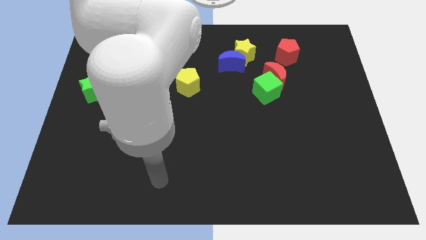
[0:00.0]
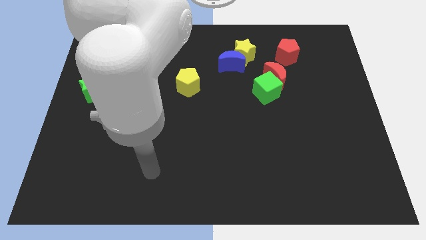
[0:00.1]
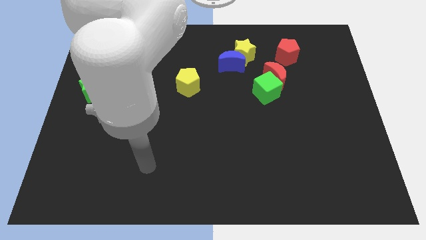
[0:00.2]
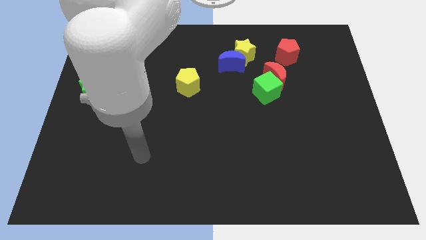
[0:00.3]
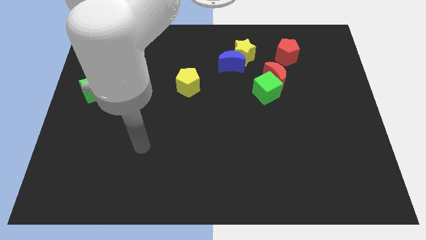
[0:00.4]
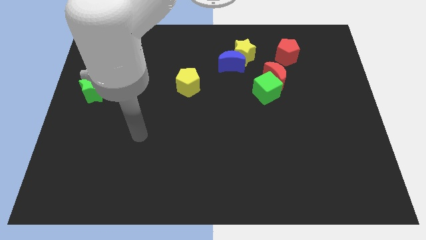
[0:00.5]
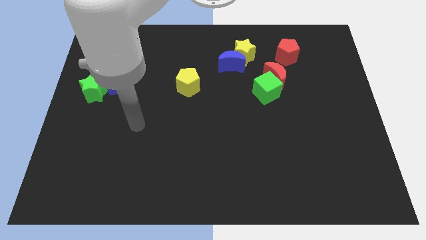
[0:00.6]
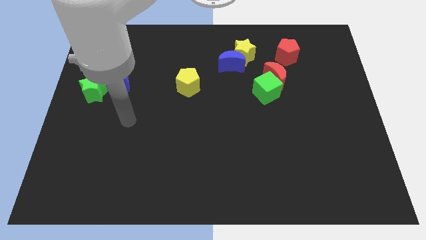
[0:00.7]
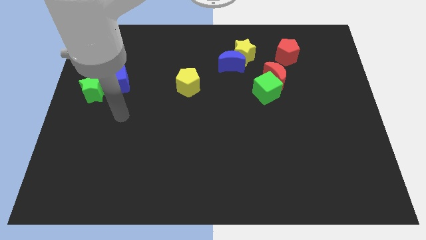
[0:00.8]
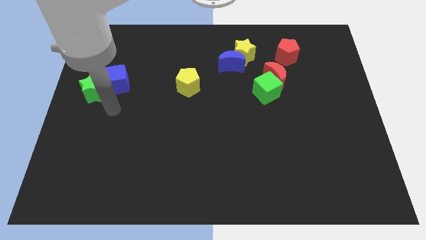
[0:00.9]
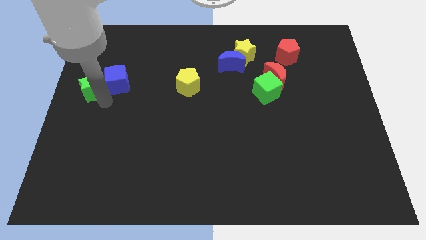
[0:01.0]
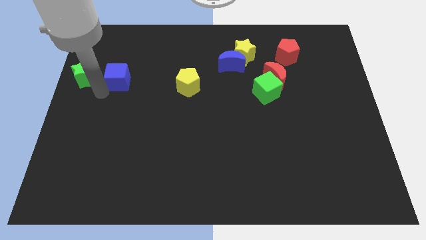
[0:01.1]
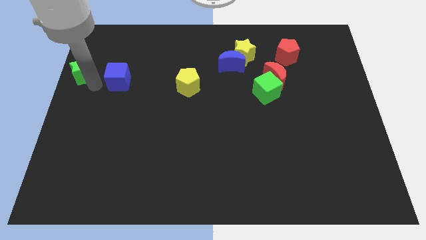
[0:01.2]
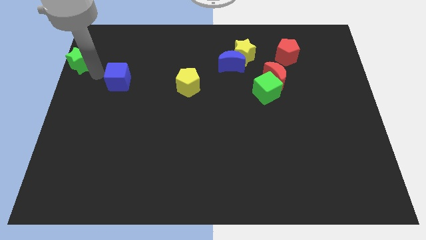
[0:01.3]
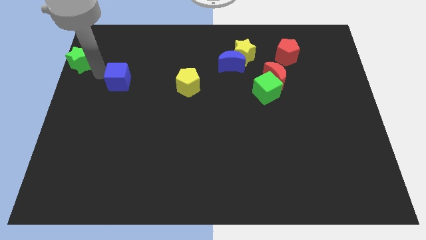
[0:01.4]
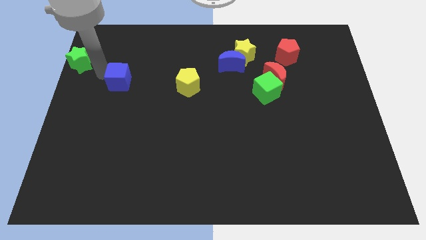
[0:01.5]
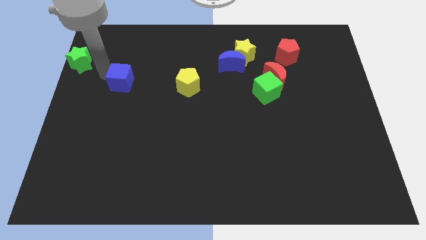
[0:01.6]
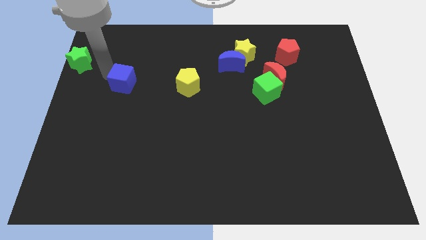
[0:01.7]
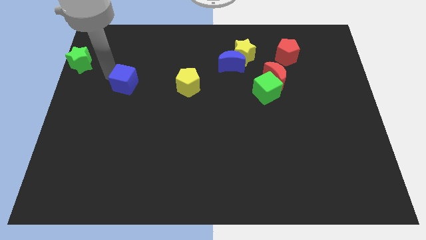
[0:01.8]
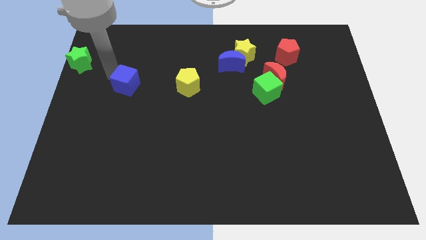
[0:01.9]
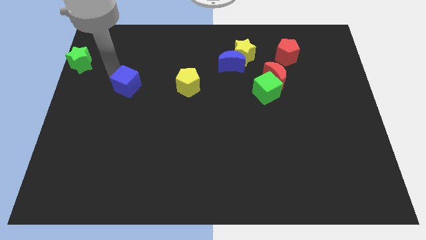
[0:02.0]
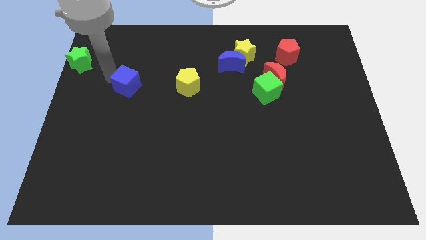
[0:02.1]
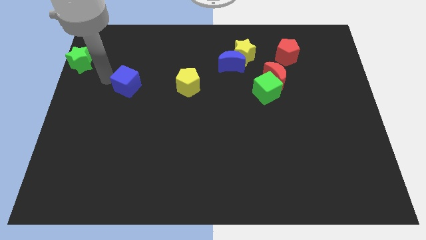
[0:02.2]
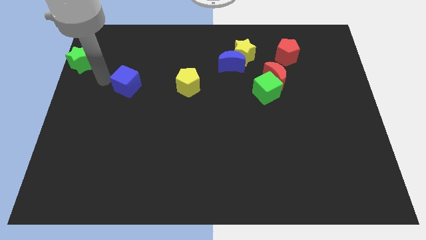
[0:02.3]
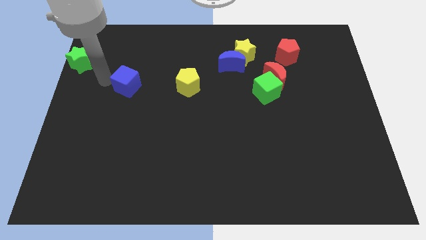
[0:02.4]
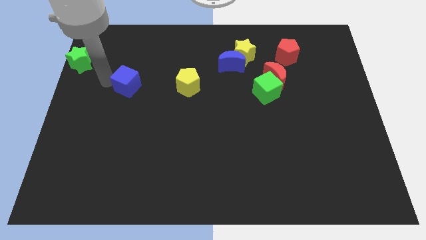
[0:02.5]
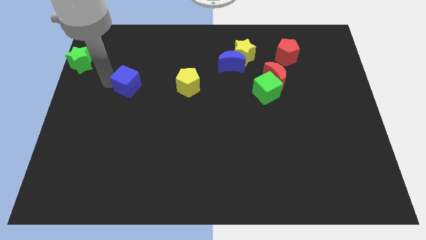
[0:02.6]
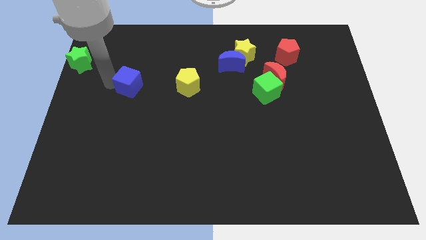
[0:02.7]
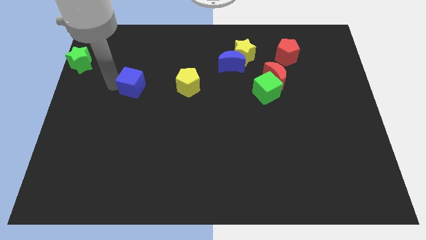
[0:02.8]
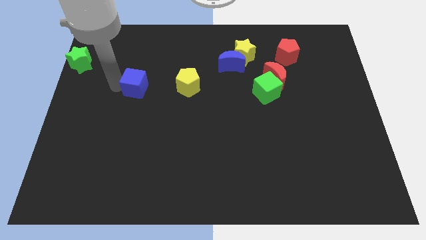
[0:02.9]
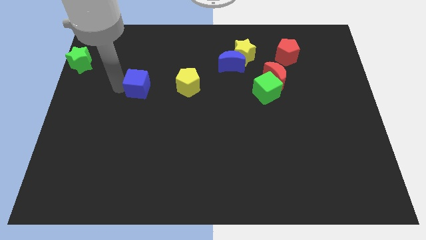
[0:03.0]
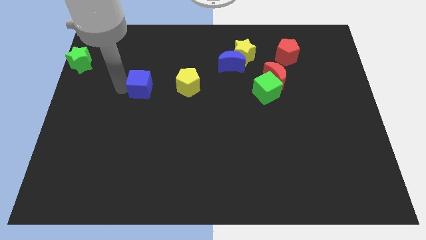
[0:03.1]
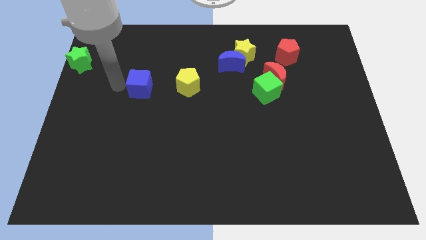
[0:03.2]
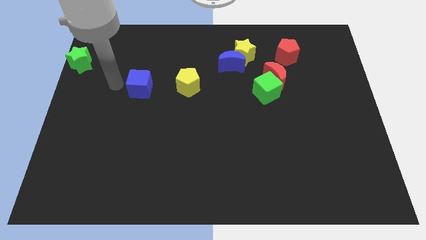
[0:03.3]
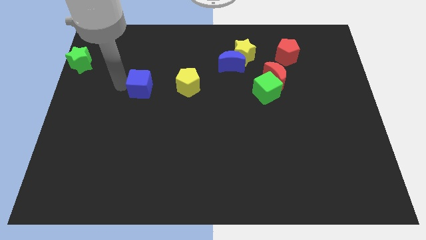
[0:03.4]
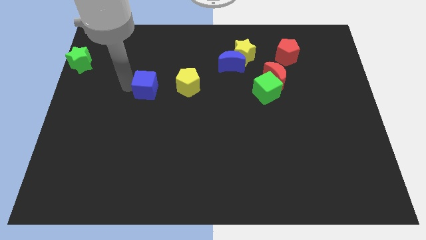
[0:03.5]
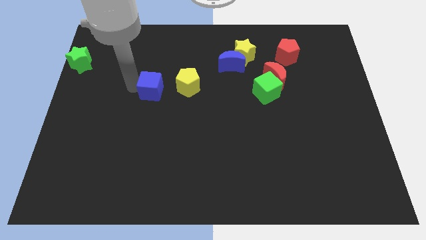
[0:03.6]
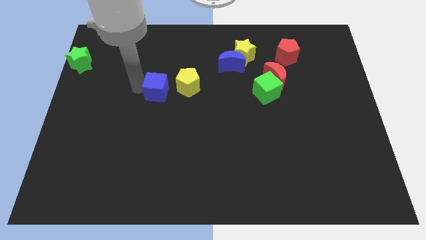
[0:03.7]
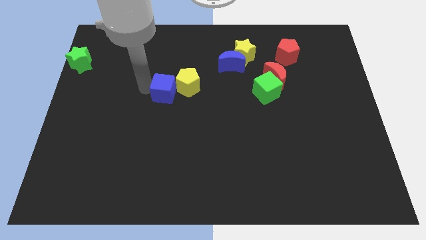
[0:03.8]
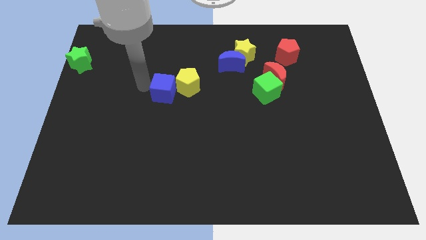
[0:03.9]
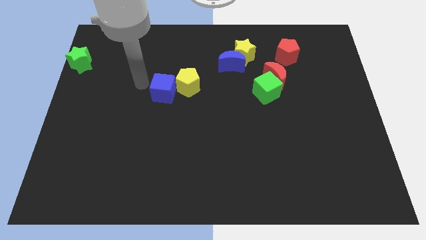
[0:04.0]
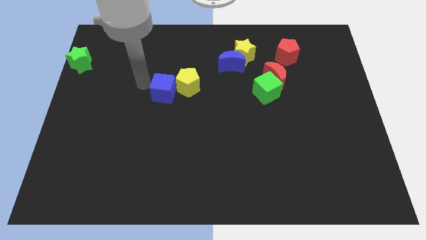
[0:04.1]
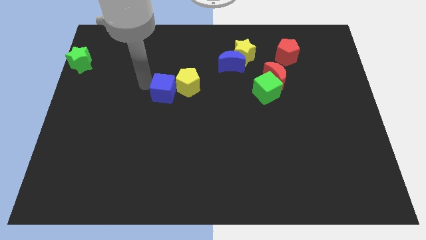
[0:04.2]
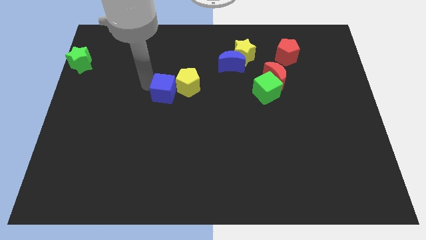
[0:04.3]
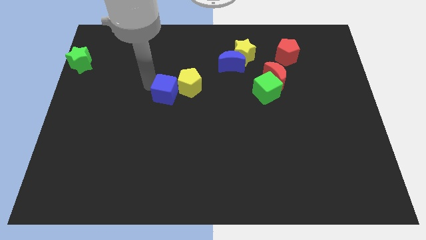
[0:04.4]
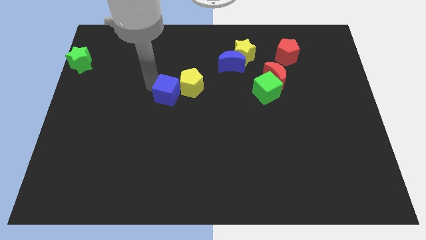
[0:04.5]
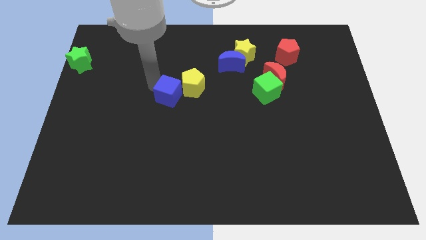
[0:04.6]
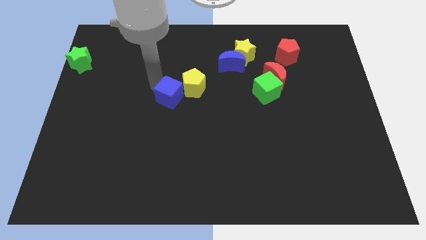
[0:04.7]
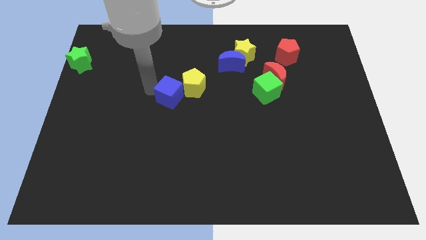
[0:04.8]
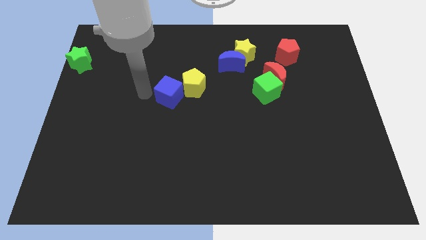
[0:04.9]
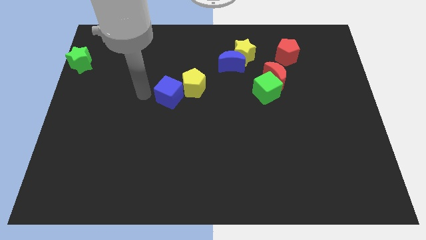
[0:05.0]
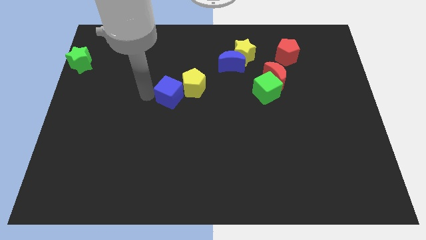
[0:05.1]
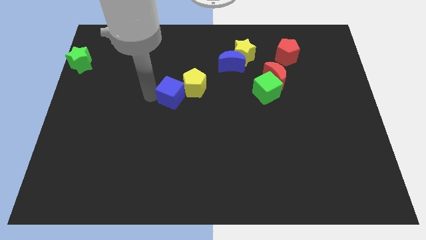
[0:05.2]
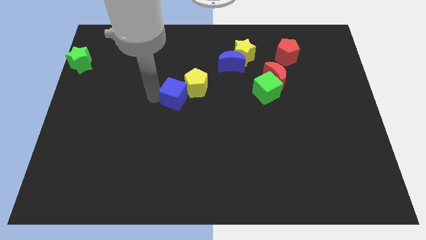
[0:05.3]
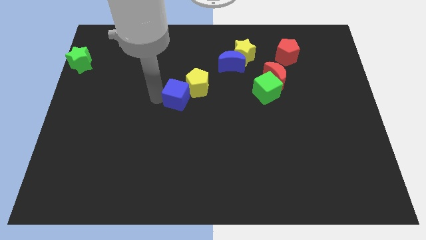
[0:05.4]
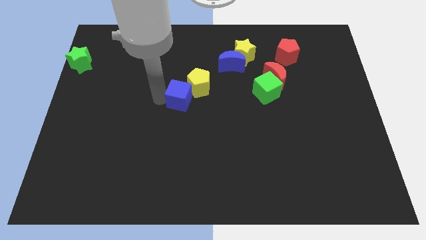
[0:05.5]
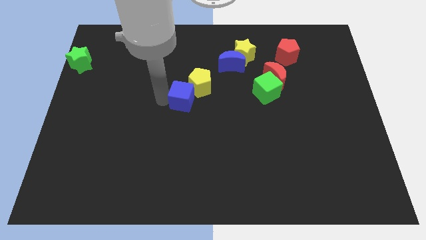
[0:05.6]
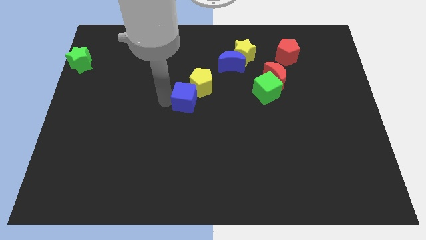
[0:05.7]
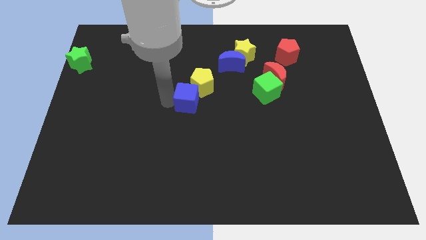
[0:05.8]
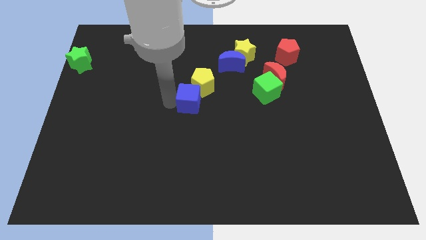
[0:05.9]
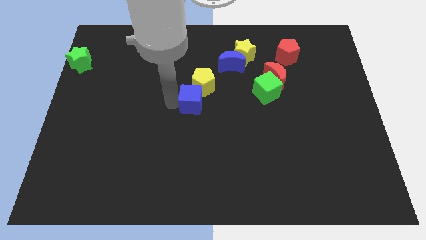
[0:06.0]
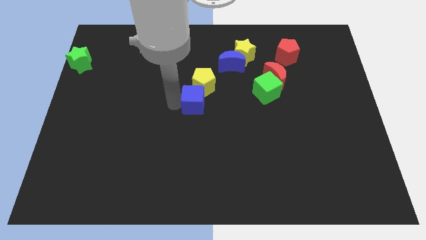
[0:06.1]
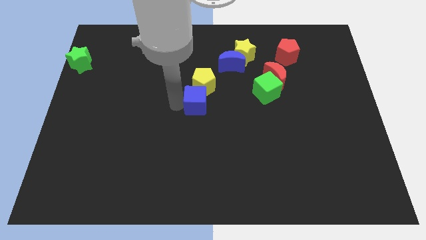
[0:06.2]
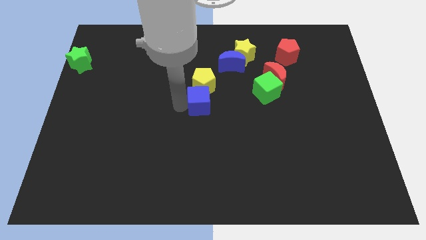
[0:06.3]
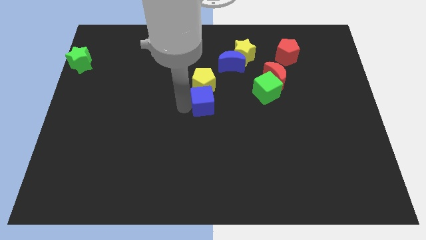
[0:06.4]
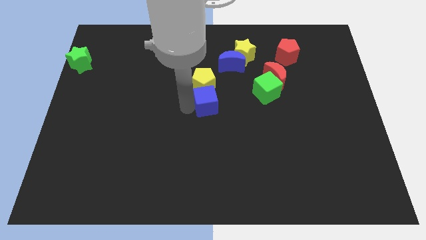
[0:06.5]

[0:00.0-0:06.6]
move the blue cube to the right

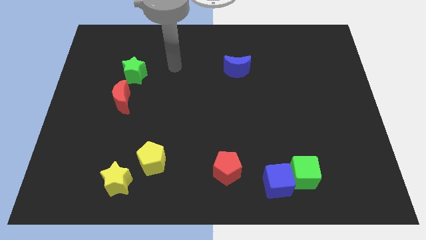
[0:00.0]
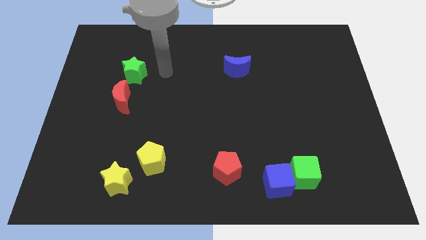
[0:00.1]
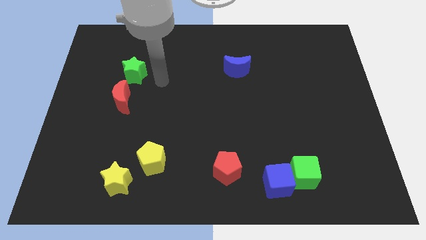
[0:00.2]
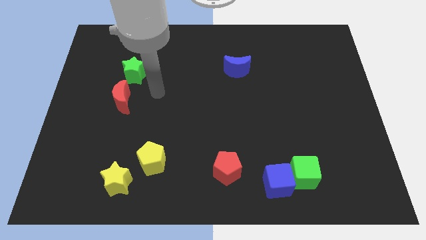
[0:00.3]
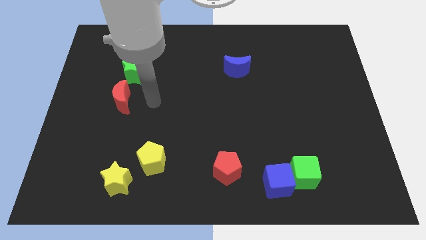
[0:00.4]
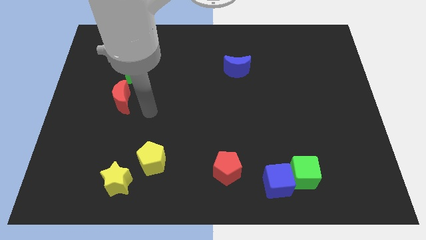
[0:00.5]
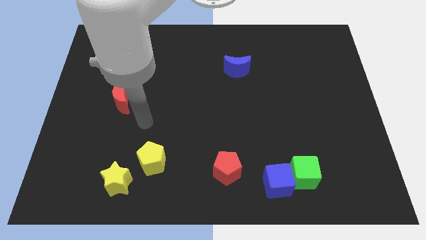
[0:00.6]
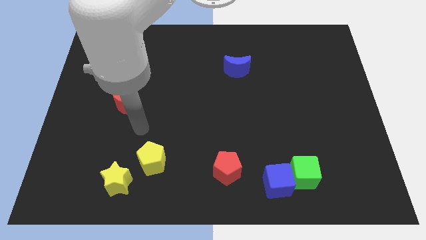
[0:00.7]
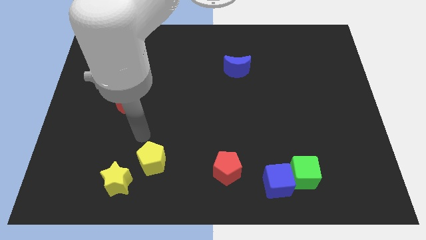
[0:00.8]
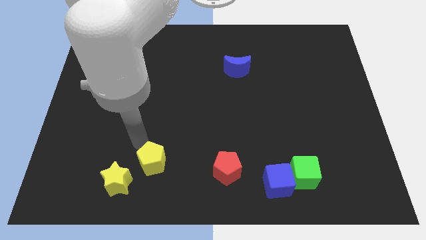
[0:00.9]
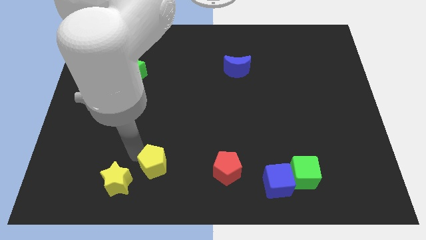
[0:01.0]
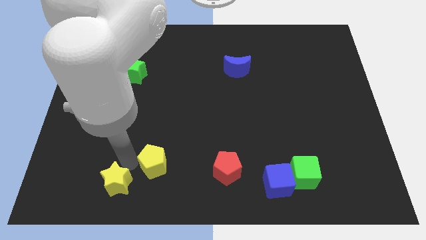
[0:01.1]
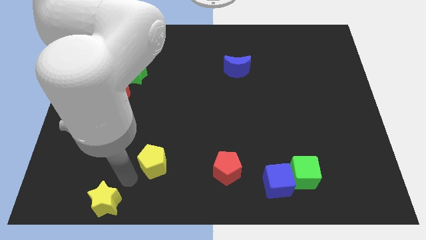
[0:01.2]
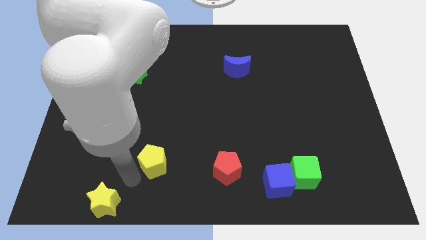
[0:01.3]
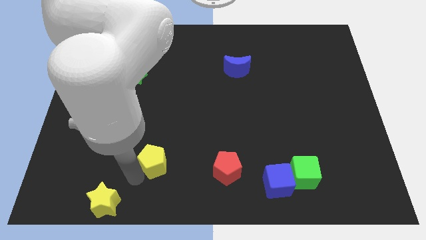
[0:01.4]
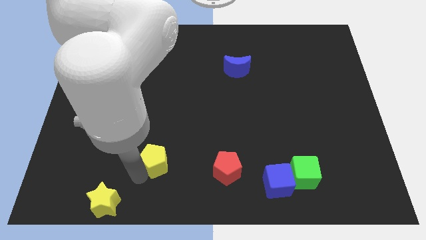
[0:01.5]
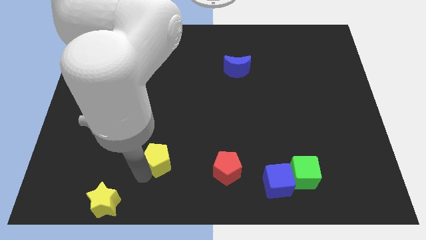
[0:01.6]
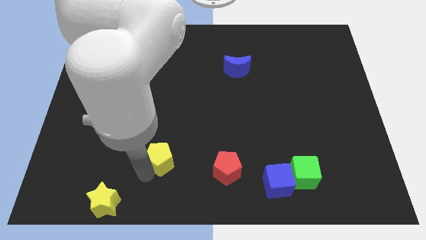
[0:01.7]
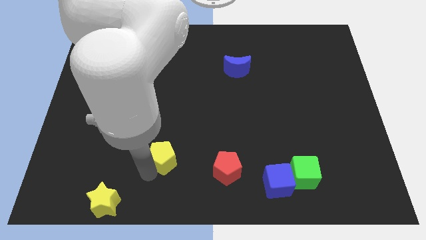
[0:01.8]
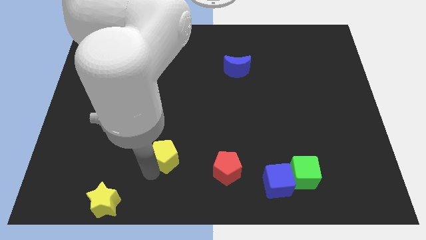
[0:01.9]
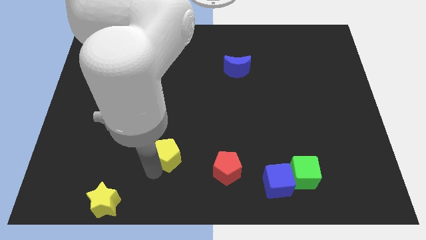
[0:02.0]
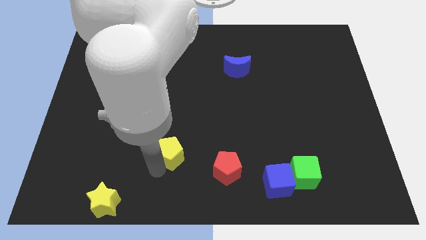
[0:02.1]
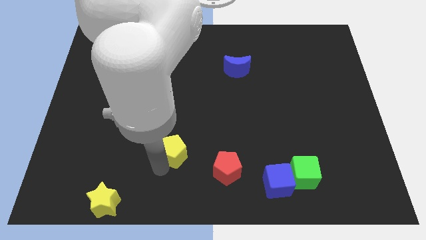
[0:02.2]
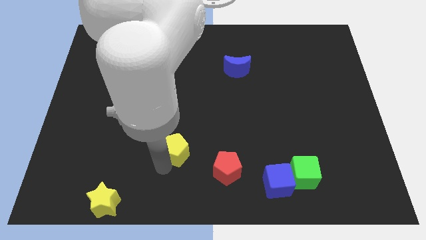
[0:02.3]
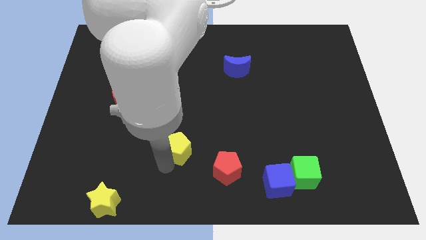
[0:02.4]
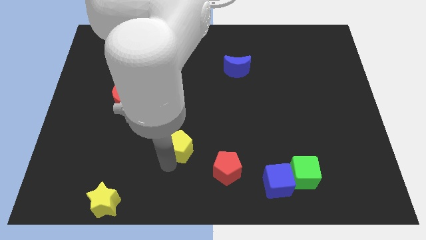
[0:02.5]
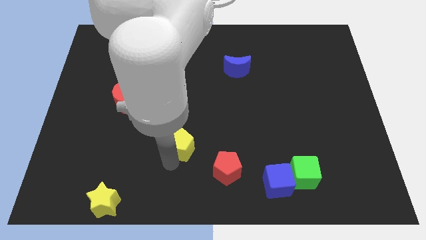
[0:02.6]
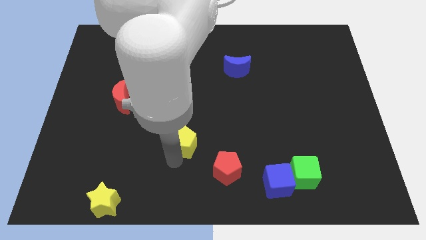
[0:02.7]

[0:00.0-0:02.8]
slide the yellow pentagon up and then to the right a little bit
